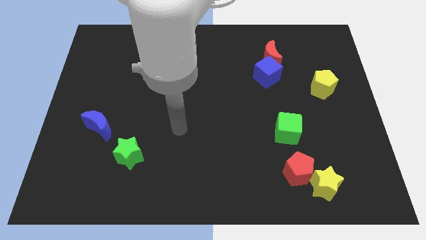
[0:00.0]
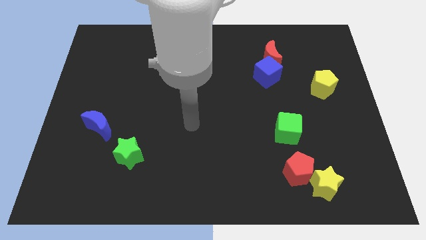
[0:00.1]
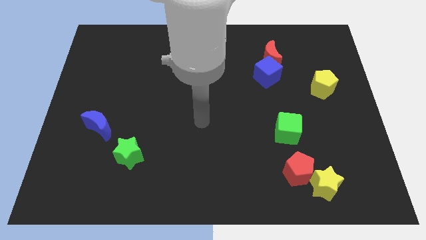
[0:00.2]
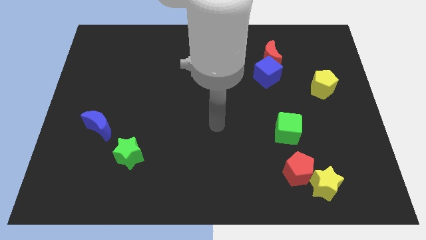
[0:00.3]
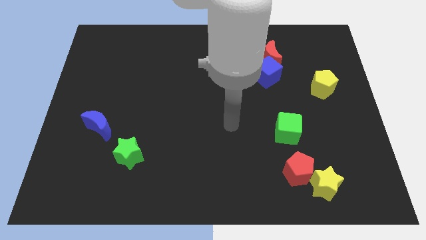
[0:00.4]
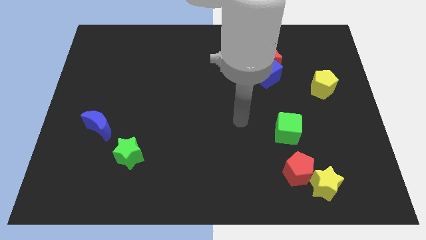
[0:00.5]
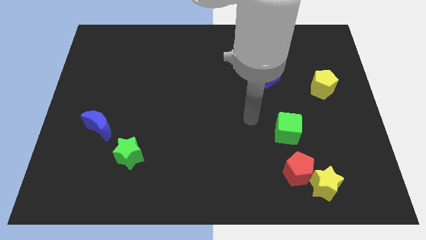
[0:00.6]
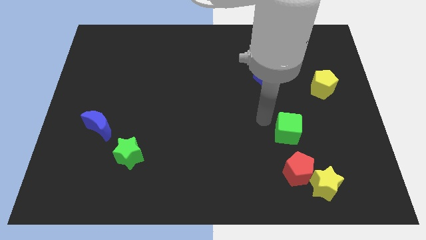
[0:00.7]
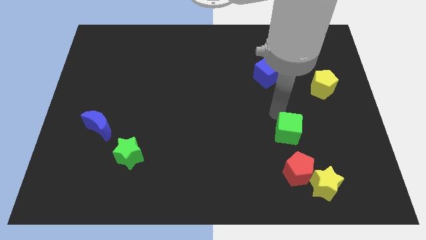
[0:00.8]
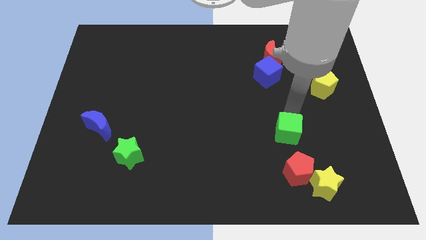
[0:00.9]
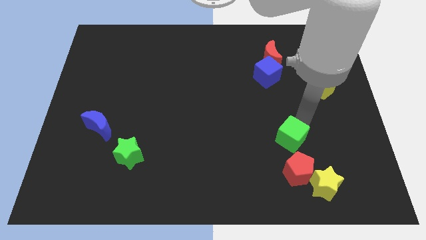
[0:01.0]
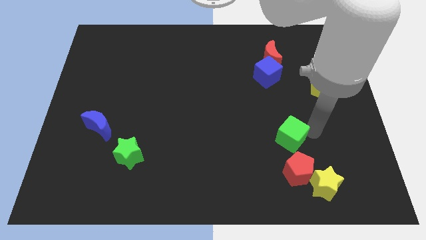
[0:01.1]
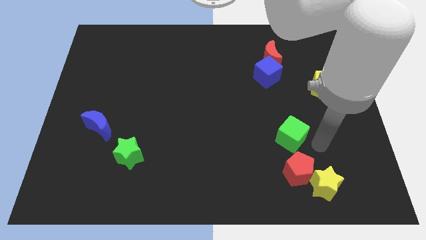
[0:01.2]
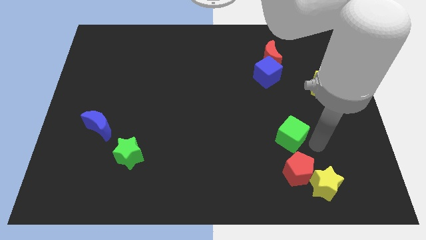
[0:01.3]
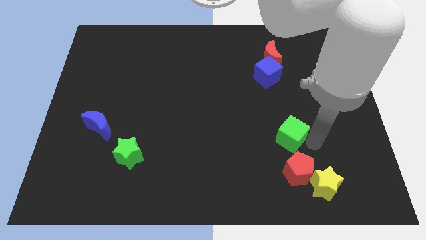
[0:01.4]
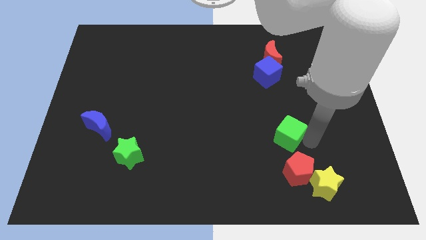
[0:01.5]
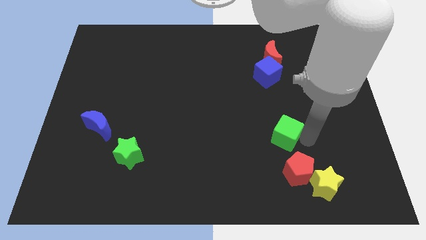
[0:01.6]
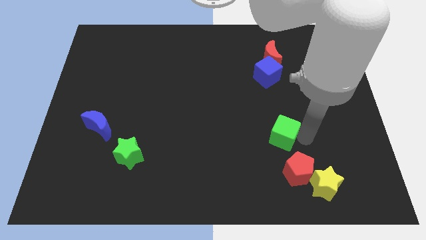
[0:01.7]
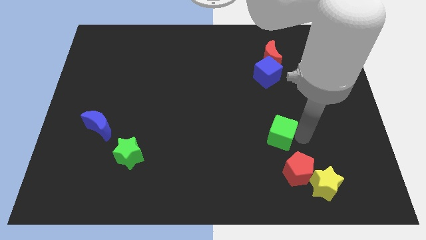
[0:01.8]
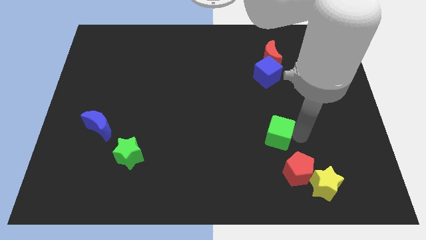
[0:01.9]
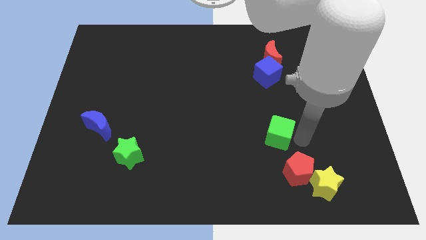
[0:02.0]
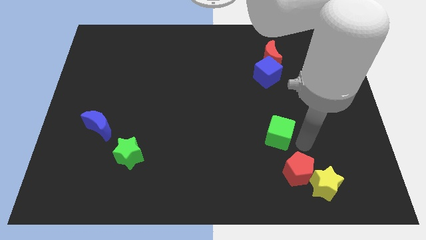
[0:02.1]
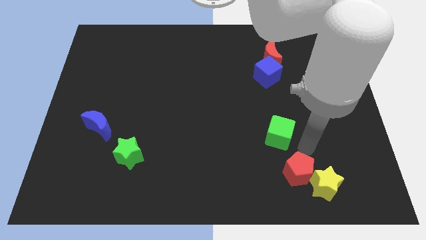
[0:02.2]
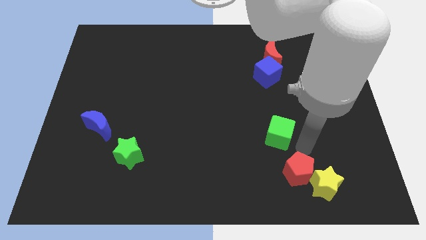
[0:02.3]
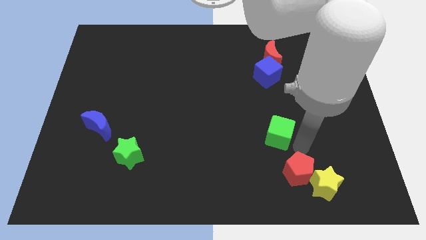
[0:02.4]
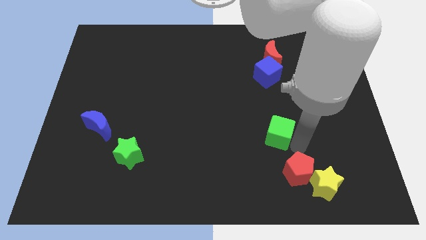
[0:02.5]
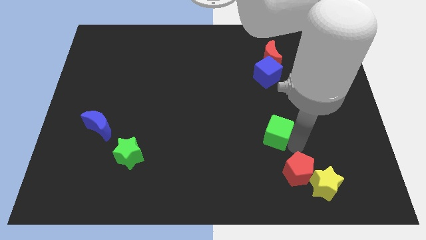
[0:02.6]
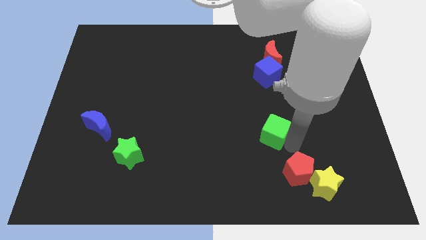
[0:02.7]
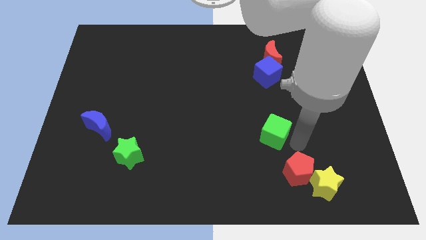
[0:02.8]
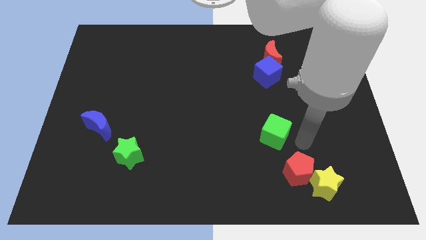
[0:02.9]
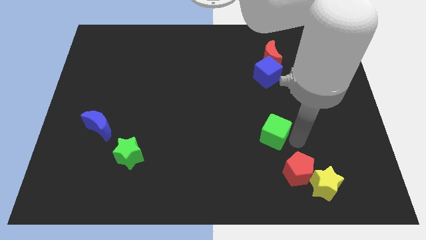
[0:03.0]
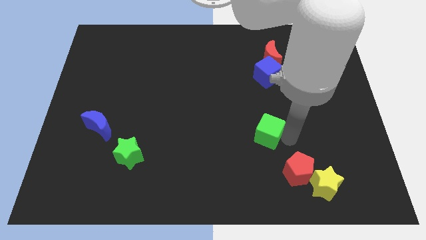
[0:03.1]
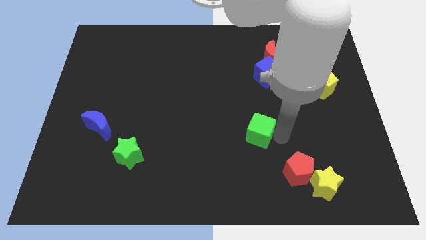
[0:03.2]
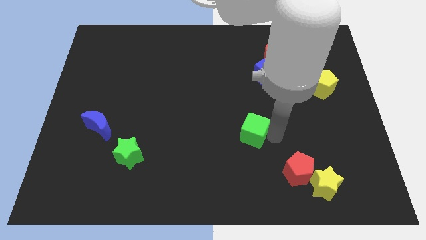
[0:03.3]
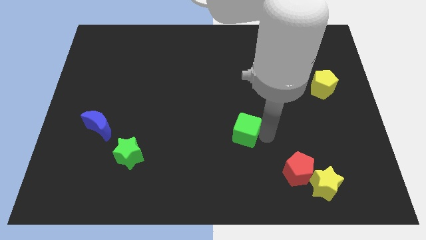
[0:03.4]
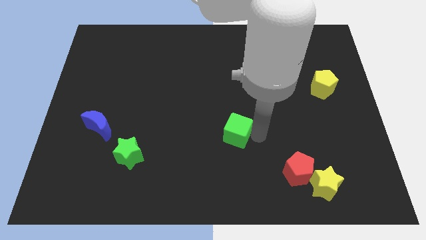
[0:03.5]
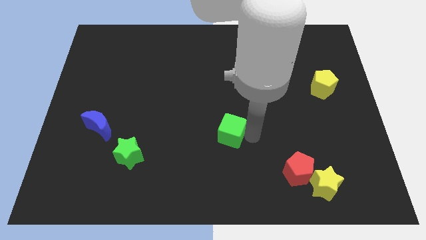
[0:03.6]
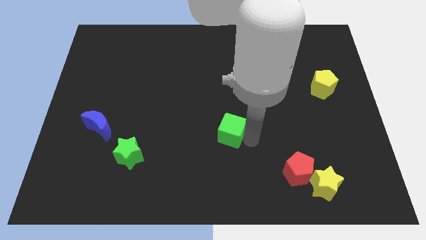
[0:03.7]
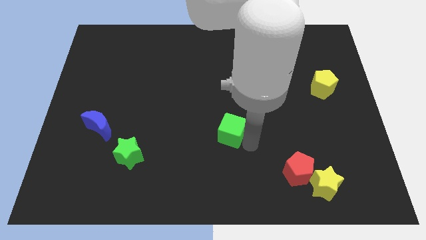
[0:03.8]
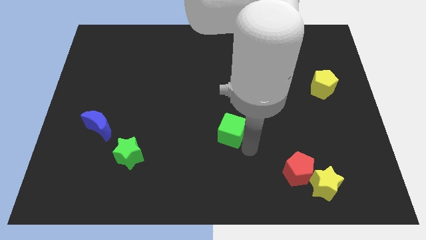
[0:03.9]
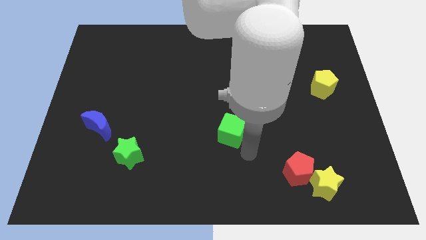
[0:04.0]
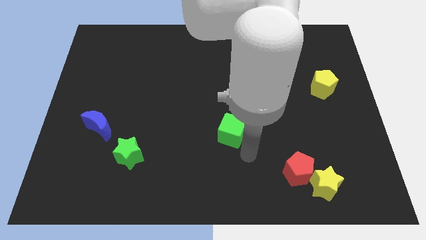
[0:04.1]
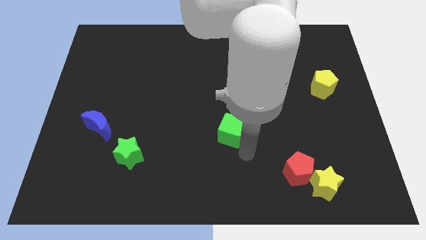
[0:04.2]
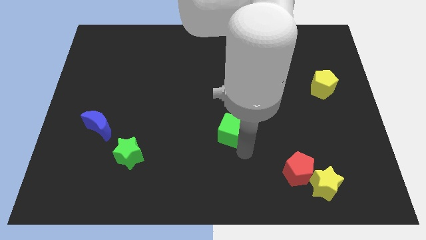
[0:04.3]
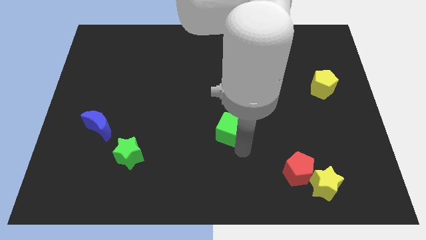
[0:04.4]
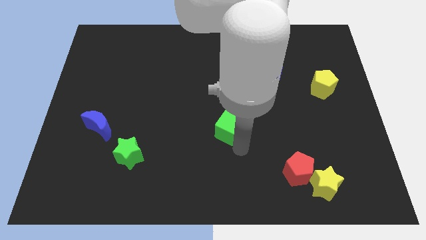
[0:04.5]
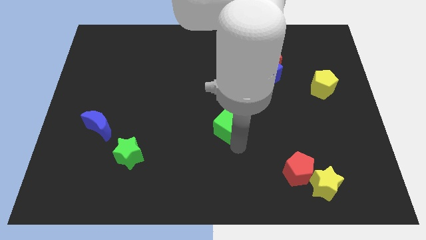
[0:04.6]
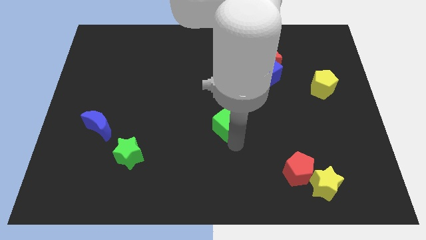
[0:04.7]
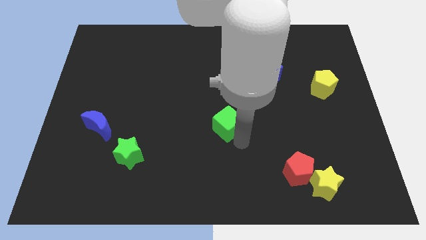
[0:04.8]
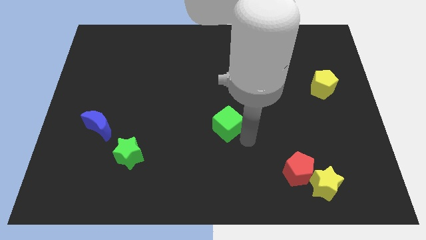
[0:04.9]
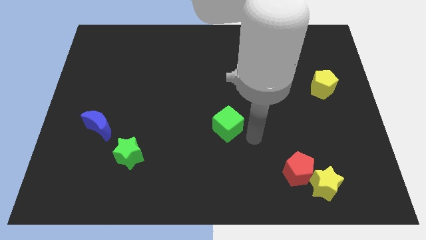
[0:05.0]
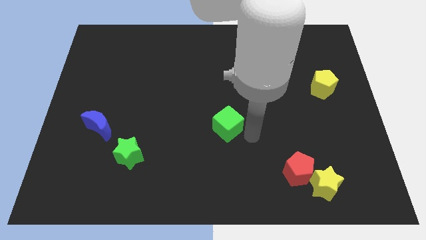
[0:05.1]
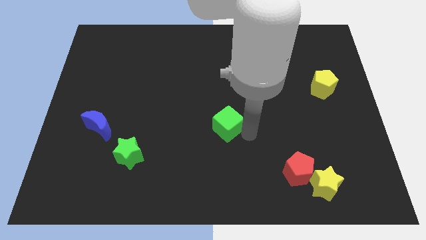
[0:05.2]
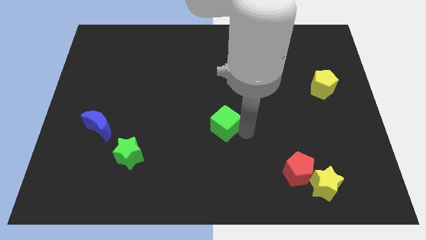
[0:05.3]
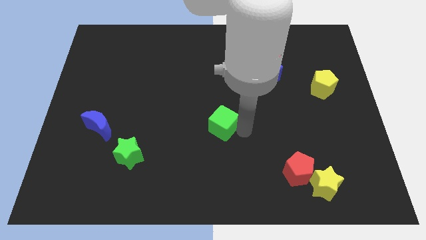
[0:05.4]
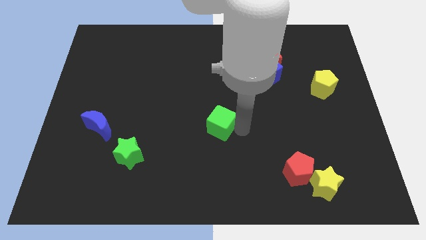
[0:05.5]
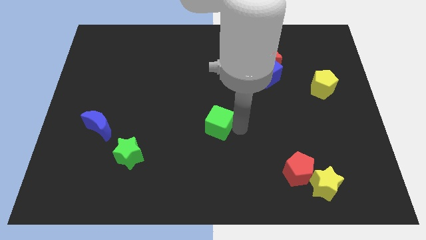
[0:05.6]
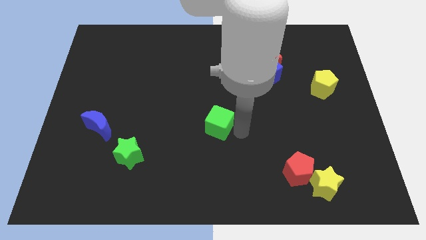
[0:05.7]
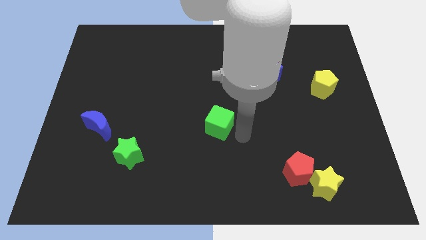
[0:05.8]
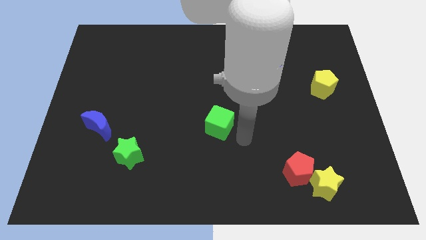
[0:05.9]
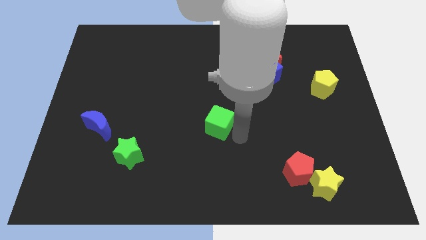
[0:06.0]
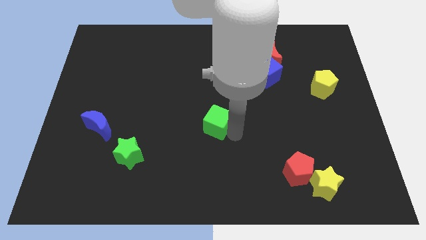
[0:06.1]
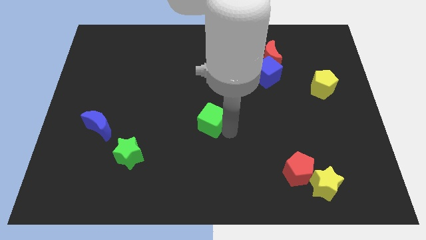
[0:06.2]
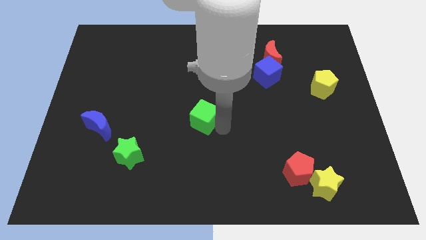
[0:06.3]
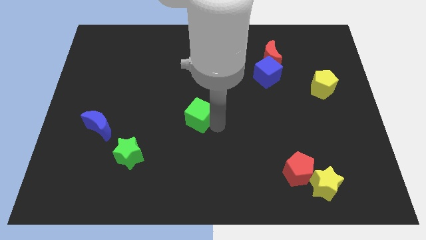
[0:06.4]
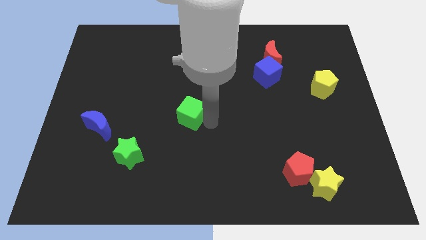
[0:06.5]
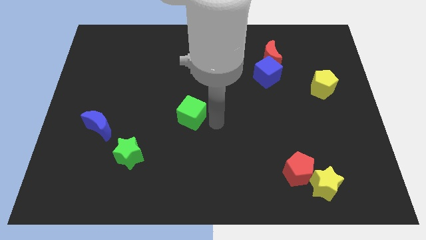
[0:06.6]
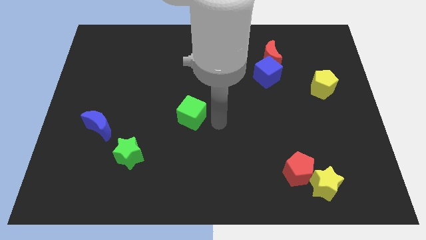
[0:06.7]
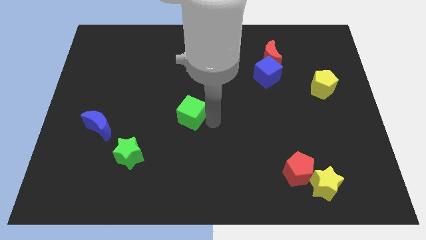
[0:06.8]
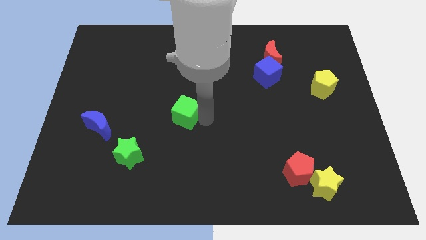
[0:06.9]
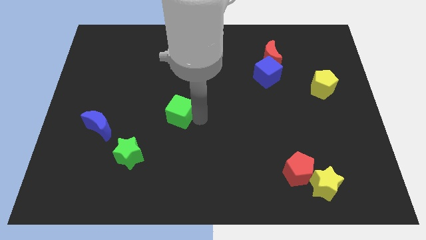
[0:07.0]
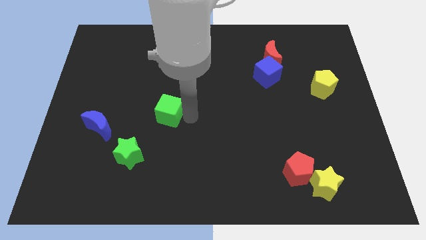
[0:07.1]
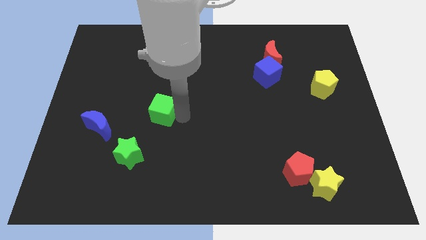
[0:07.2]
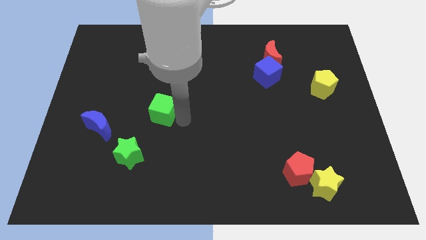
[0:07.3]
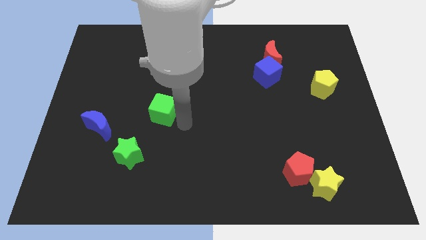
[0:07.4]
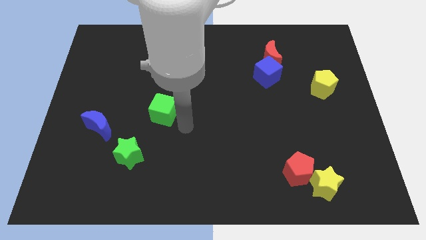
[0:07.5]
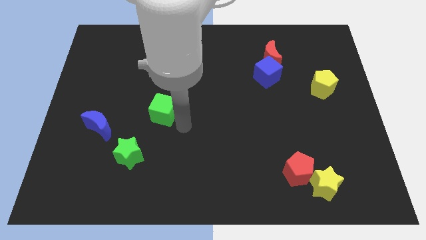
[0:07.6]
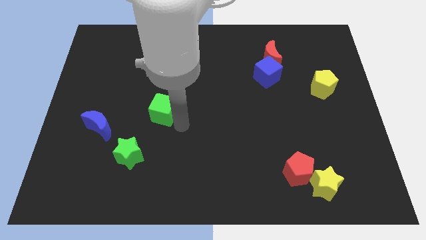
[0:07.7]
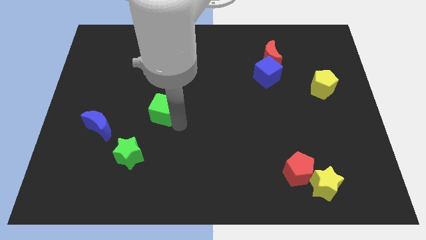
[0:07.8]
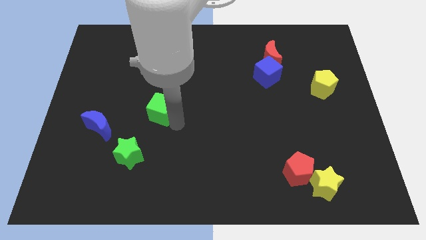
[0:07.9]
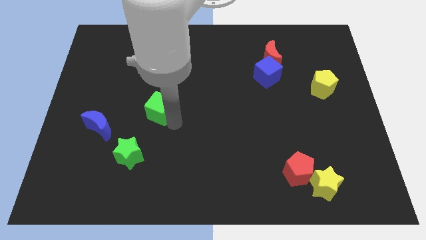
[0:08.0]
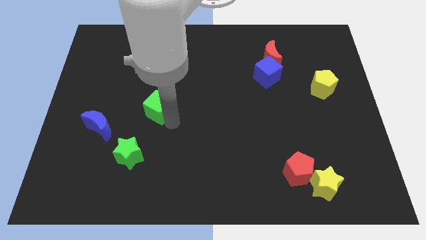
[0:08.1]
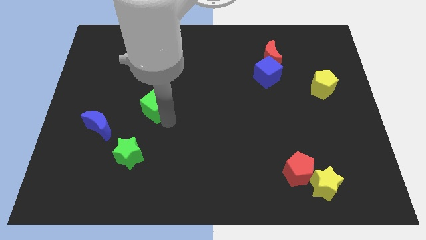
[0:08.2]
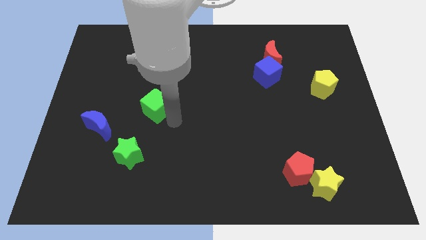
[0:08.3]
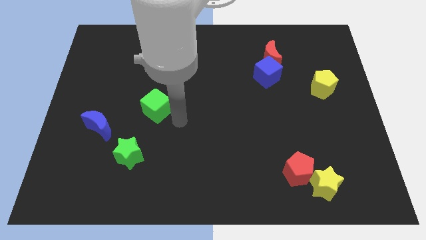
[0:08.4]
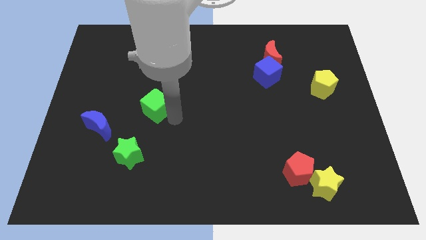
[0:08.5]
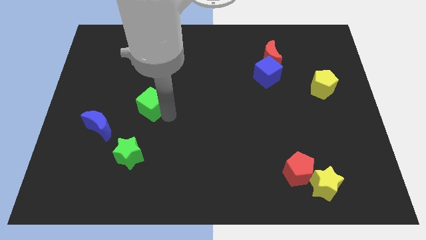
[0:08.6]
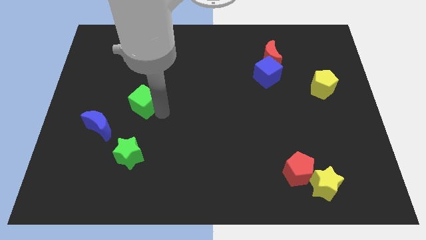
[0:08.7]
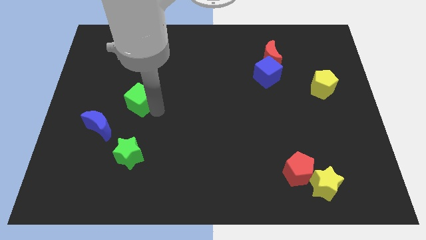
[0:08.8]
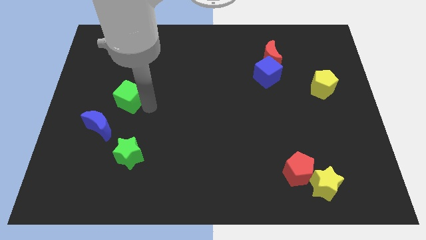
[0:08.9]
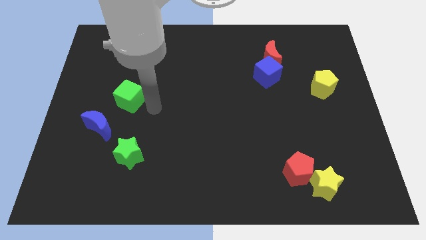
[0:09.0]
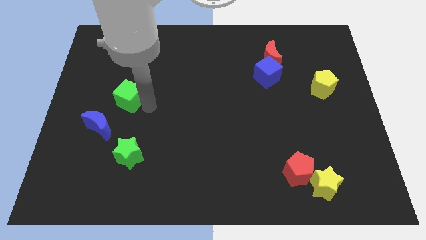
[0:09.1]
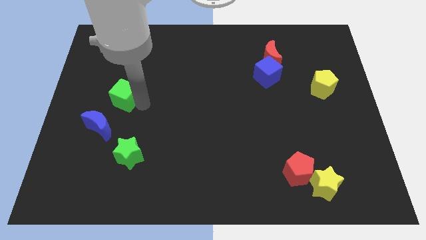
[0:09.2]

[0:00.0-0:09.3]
push the green cube to the top side of the blue moon
